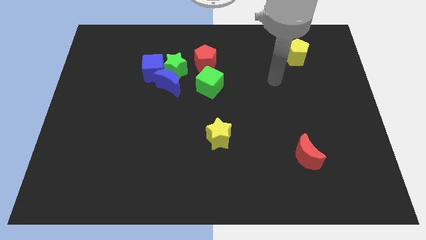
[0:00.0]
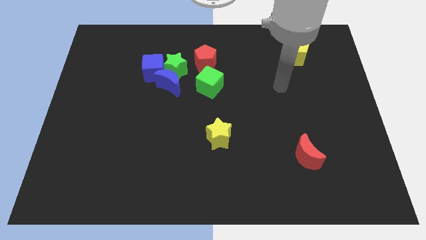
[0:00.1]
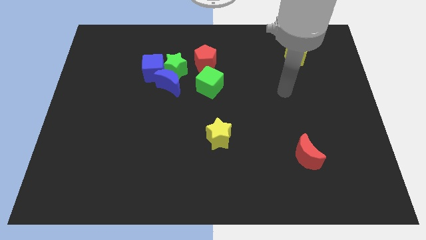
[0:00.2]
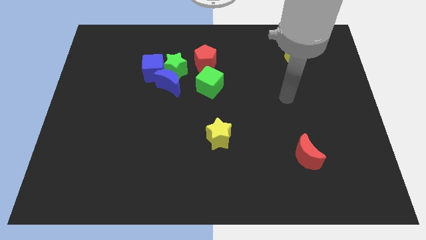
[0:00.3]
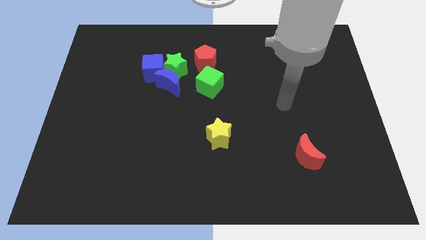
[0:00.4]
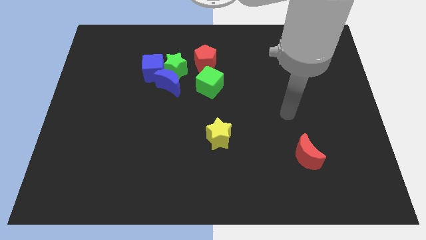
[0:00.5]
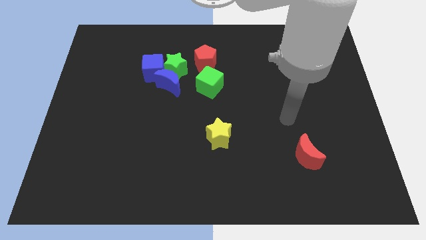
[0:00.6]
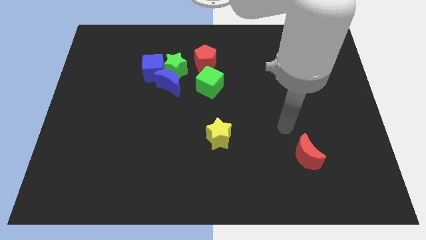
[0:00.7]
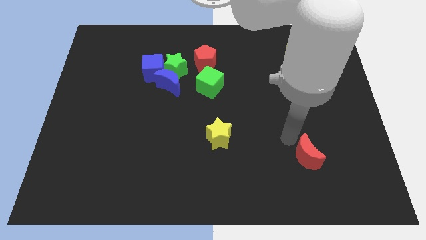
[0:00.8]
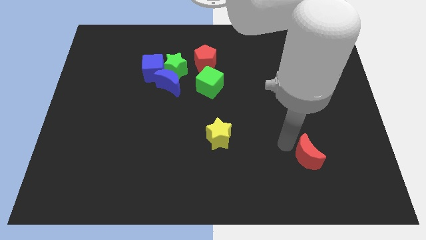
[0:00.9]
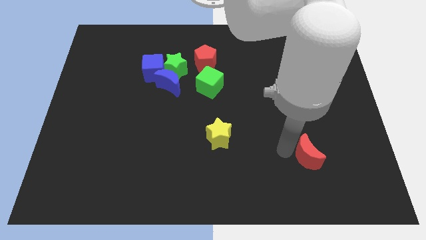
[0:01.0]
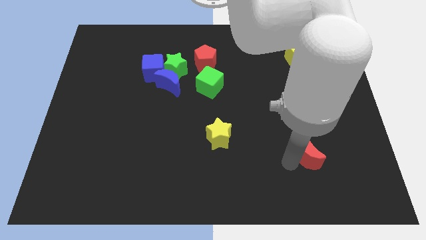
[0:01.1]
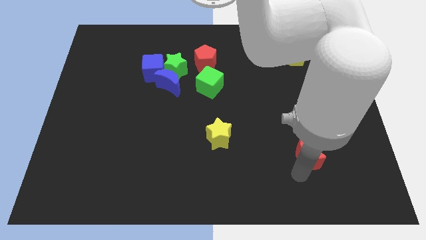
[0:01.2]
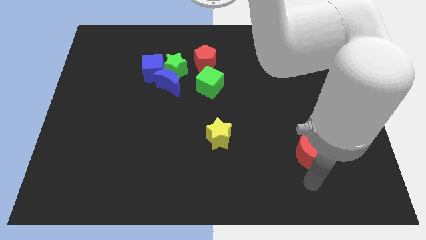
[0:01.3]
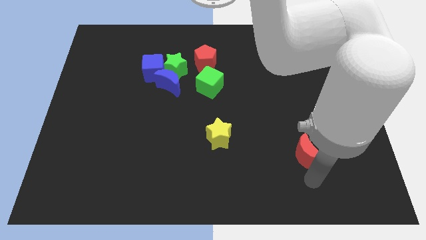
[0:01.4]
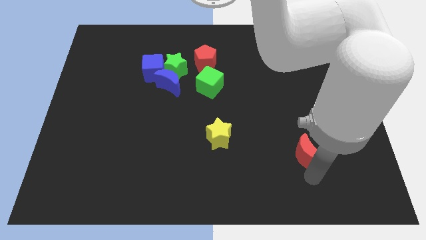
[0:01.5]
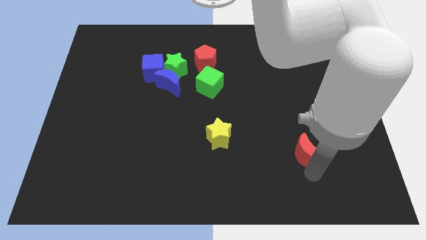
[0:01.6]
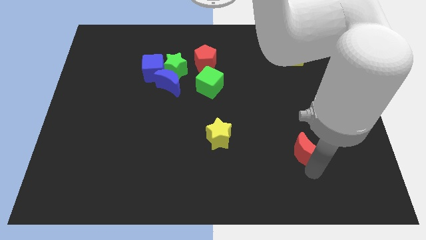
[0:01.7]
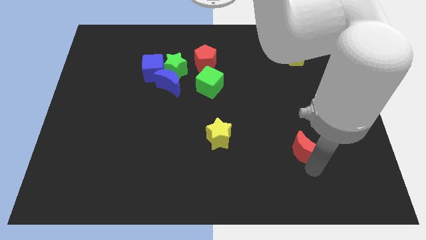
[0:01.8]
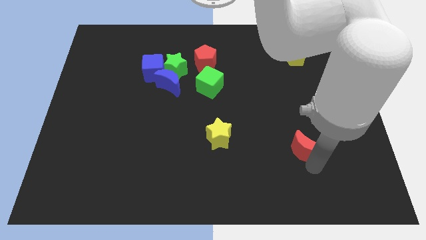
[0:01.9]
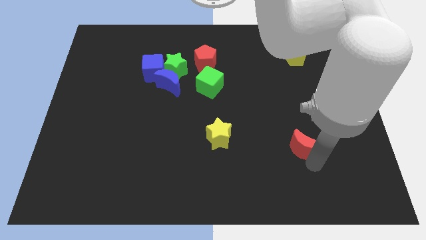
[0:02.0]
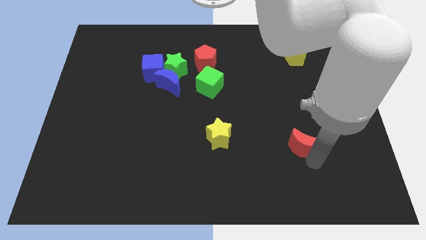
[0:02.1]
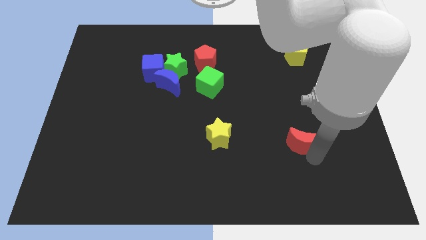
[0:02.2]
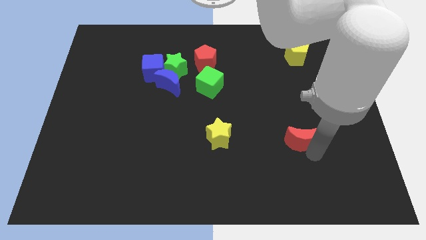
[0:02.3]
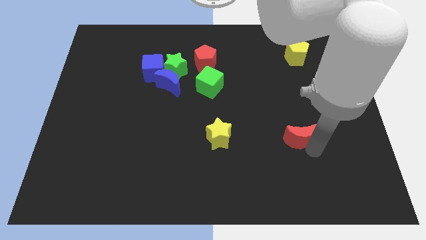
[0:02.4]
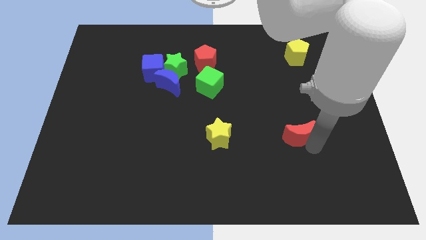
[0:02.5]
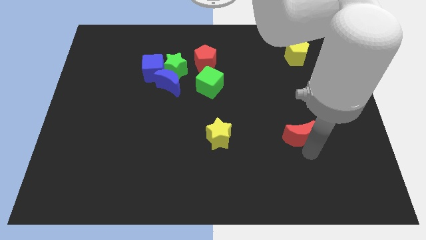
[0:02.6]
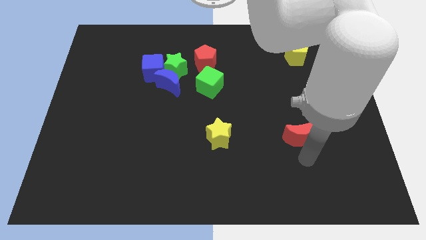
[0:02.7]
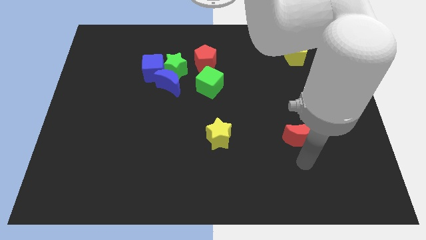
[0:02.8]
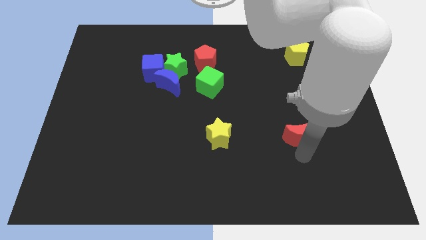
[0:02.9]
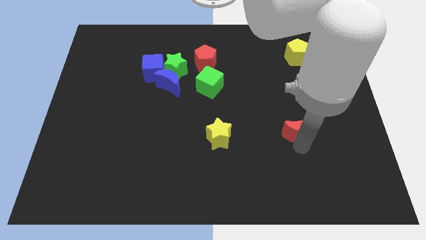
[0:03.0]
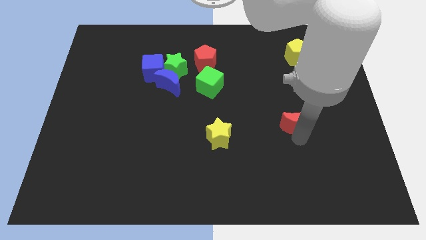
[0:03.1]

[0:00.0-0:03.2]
slightly push the red moon upwards

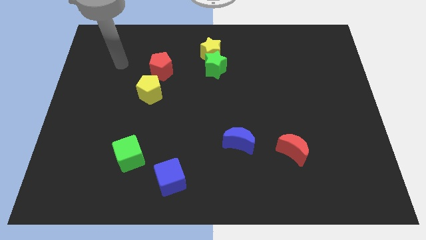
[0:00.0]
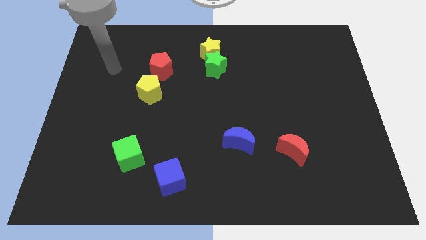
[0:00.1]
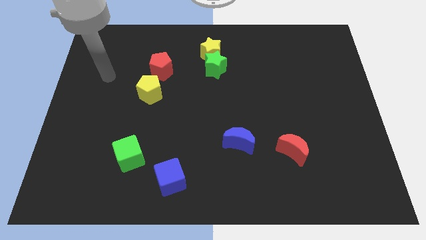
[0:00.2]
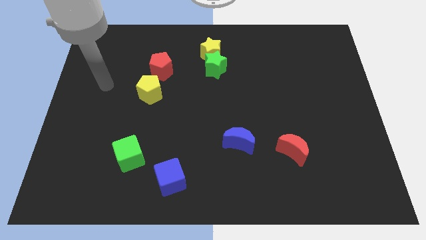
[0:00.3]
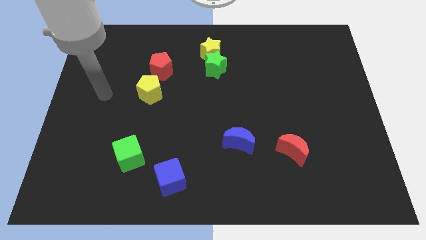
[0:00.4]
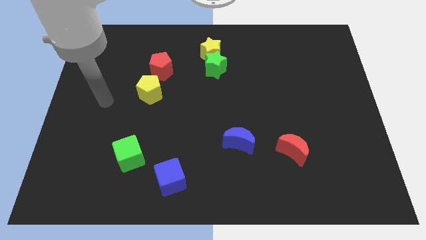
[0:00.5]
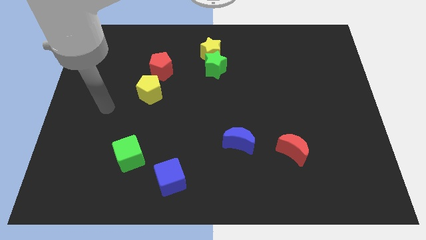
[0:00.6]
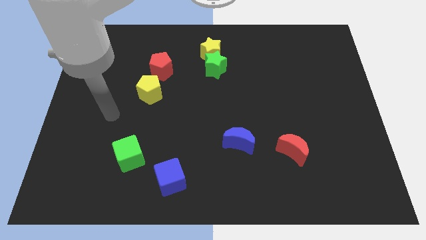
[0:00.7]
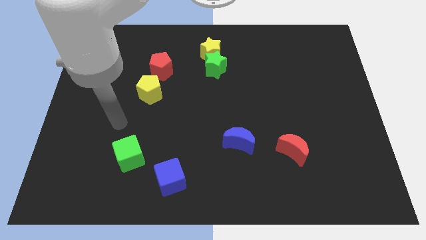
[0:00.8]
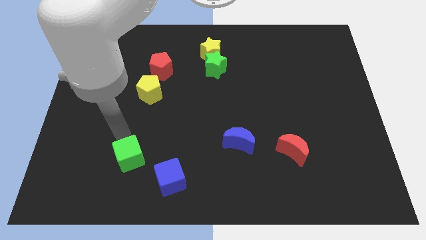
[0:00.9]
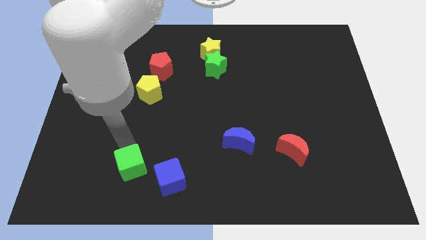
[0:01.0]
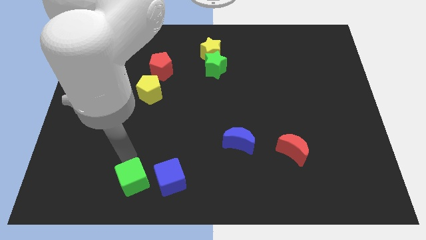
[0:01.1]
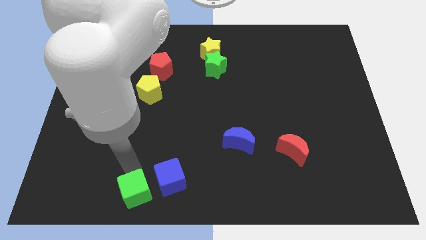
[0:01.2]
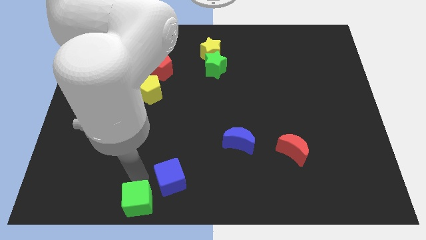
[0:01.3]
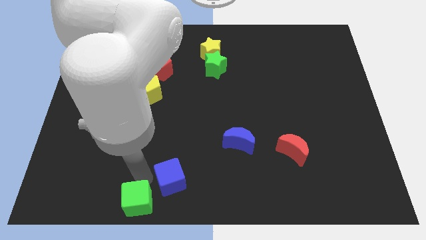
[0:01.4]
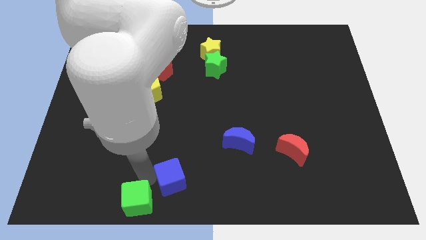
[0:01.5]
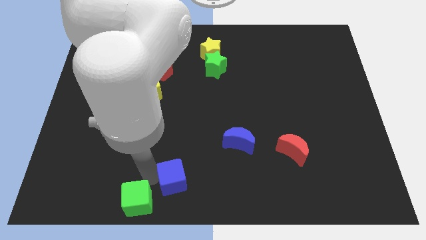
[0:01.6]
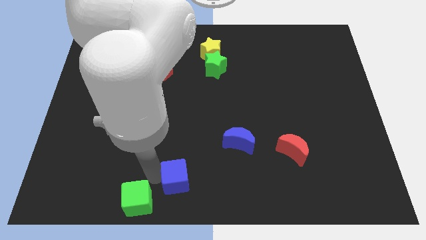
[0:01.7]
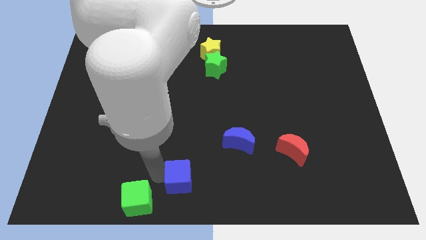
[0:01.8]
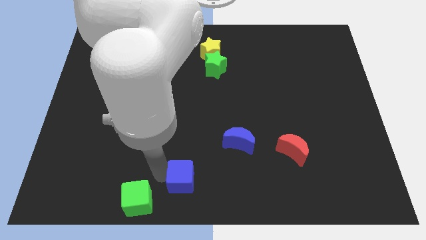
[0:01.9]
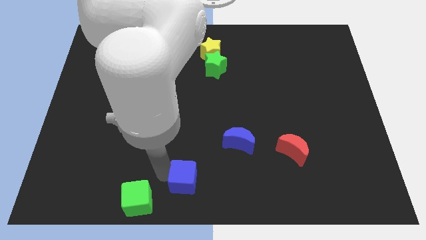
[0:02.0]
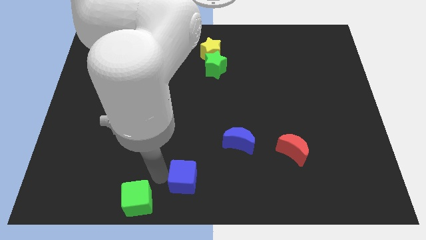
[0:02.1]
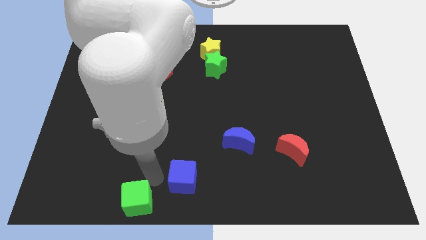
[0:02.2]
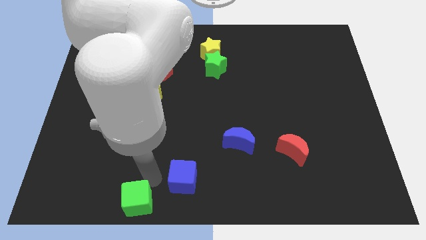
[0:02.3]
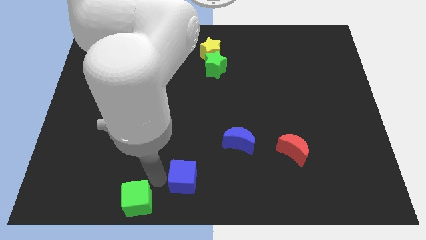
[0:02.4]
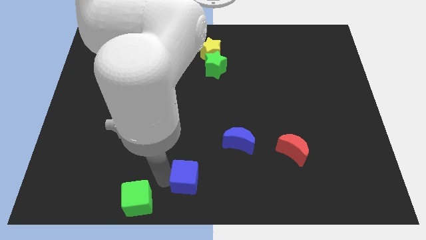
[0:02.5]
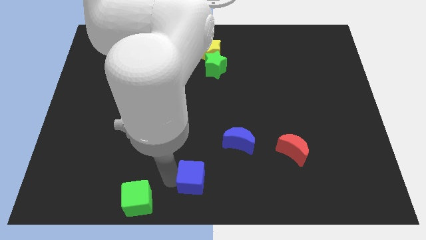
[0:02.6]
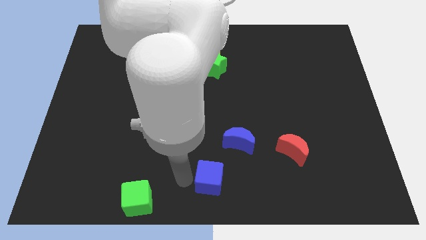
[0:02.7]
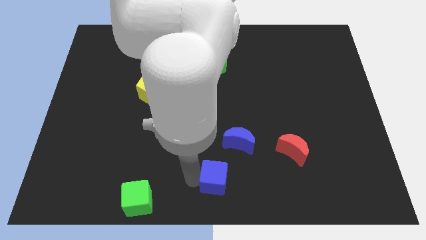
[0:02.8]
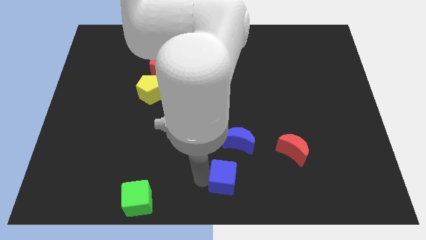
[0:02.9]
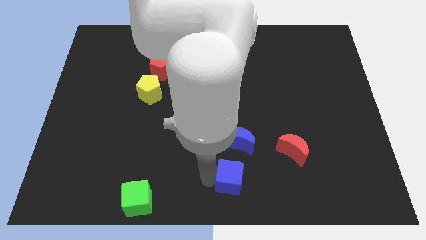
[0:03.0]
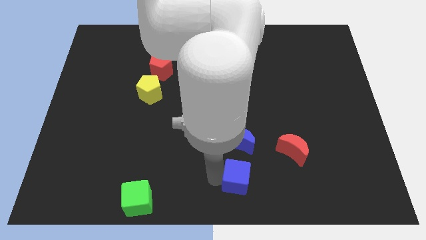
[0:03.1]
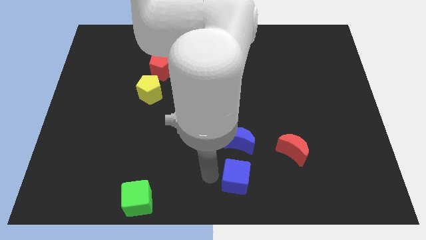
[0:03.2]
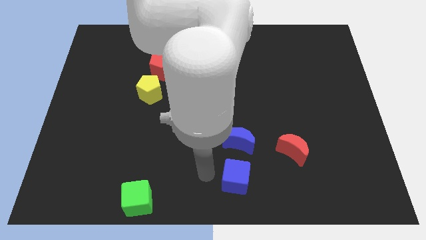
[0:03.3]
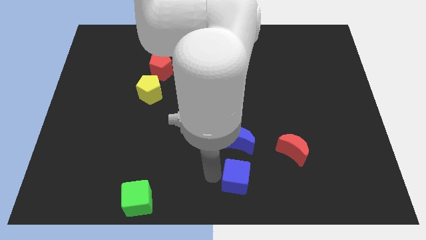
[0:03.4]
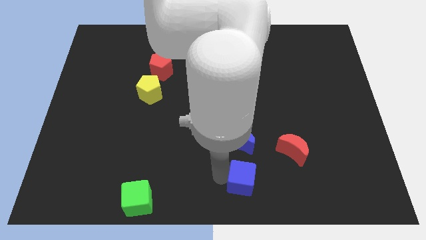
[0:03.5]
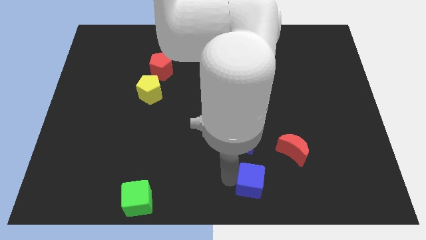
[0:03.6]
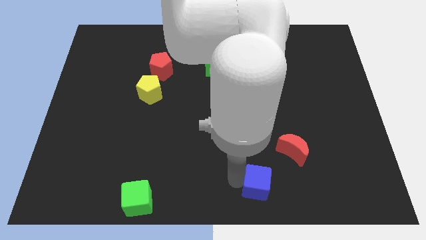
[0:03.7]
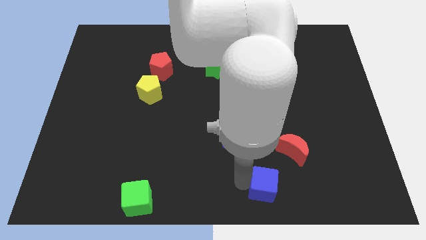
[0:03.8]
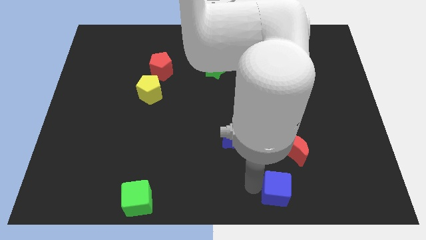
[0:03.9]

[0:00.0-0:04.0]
push the blue cube right

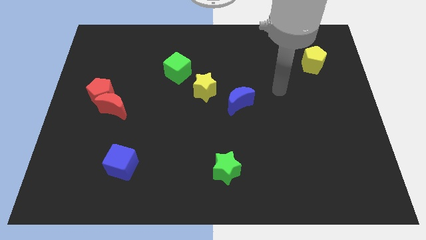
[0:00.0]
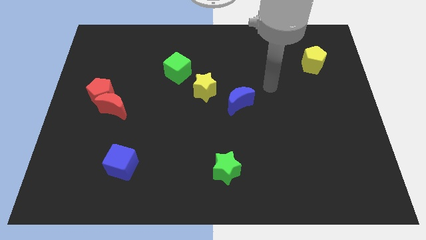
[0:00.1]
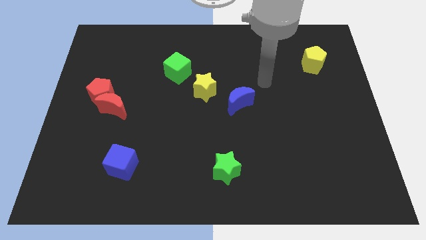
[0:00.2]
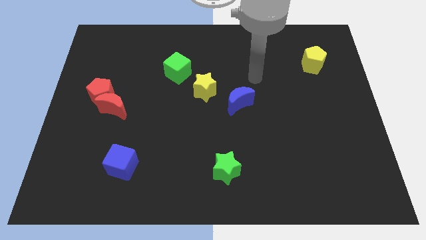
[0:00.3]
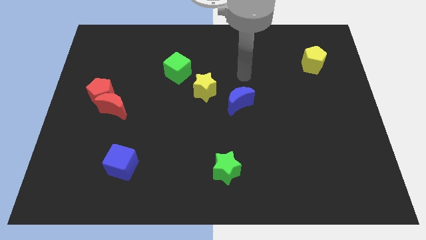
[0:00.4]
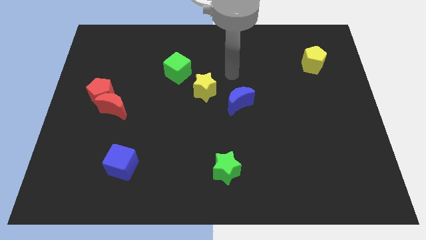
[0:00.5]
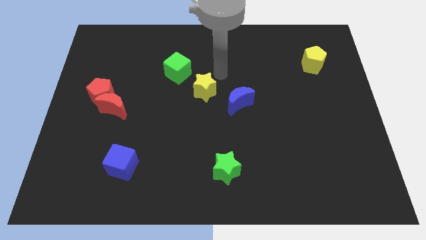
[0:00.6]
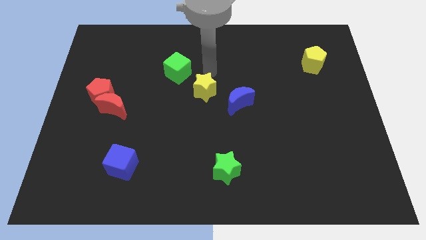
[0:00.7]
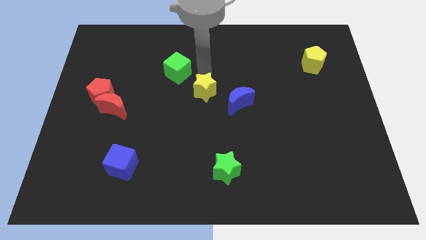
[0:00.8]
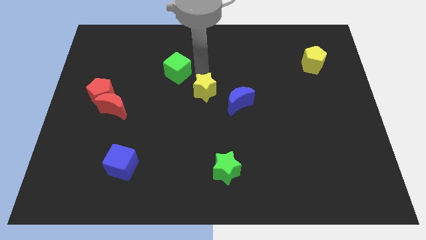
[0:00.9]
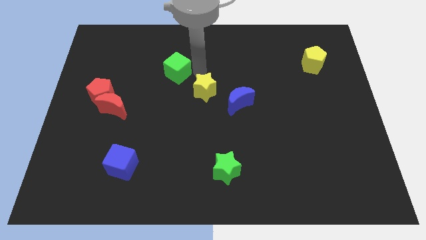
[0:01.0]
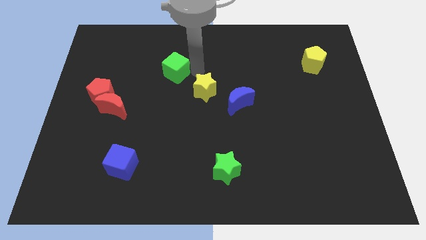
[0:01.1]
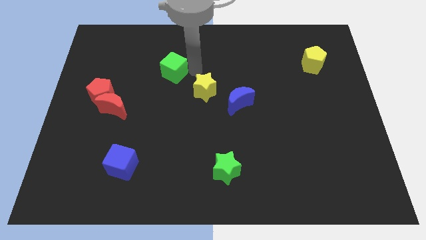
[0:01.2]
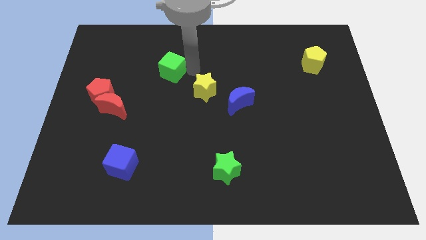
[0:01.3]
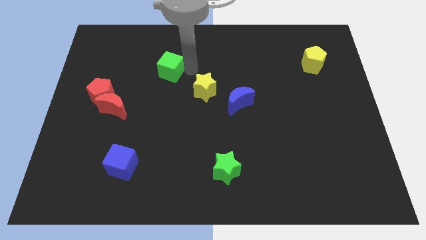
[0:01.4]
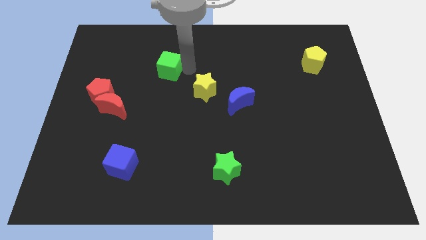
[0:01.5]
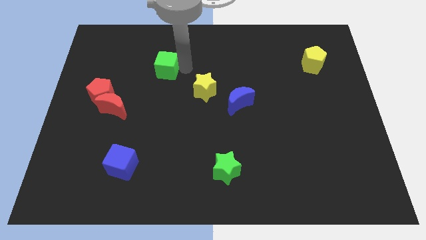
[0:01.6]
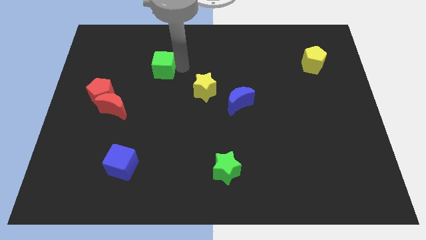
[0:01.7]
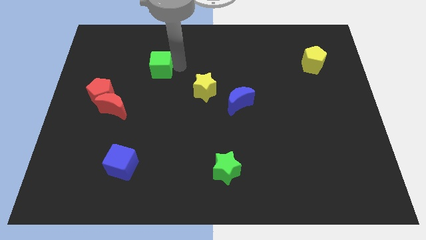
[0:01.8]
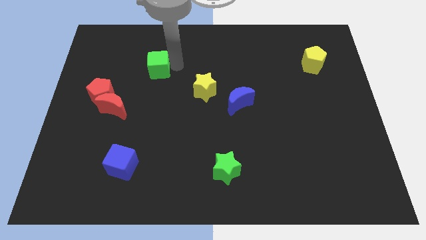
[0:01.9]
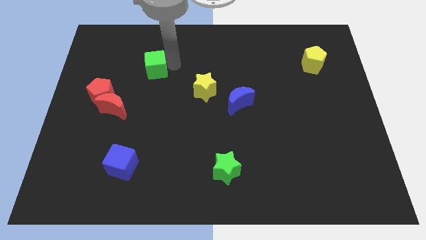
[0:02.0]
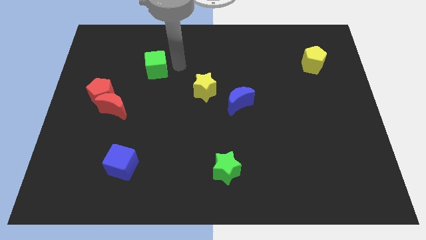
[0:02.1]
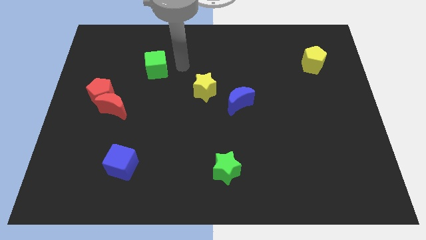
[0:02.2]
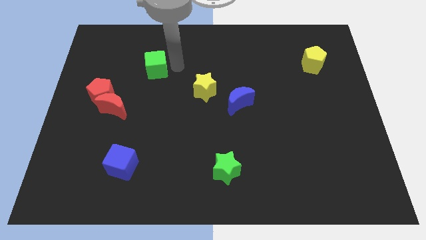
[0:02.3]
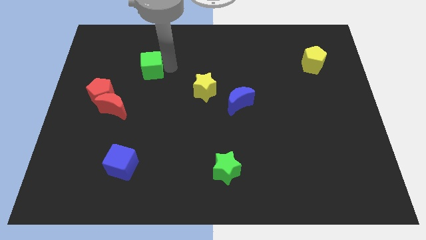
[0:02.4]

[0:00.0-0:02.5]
push the green cube to the left a little bit
